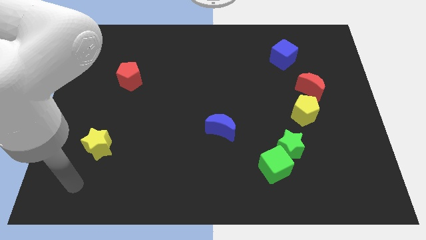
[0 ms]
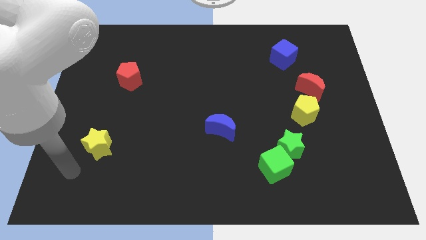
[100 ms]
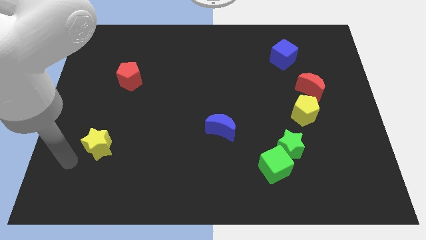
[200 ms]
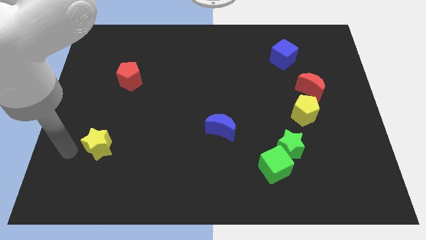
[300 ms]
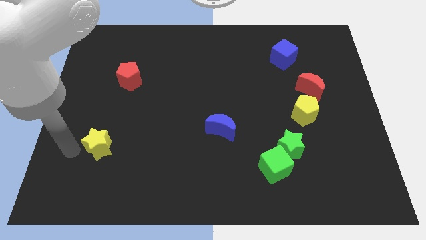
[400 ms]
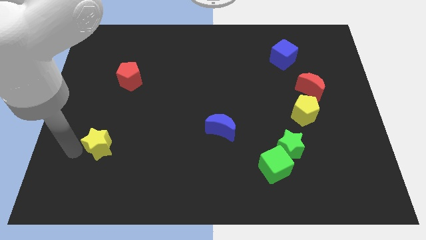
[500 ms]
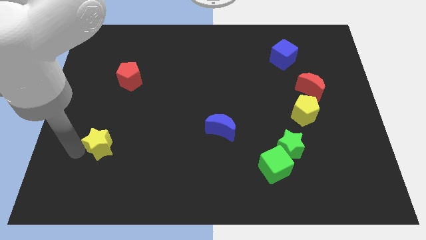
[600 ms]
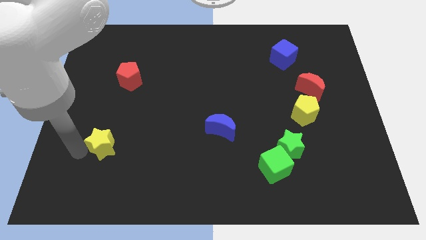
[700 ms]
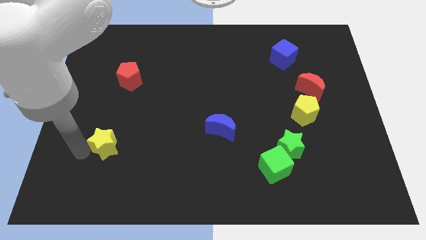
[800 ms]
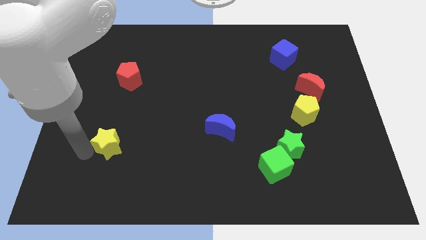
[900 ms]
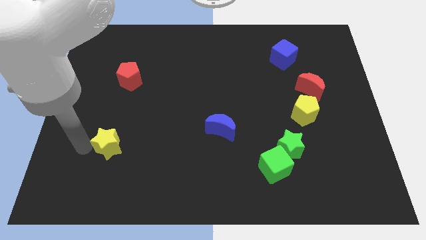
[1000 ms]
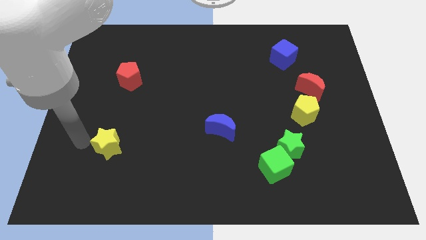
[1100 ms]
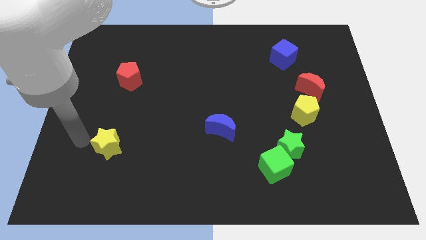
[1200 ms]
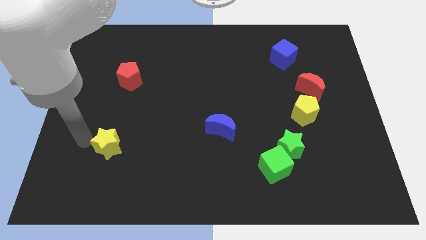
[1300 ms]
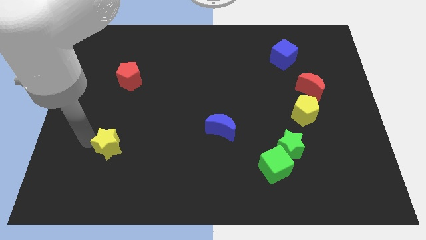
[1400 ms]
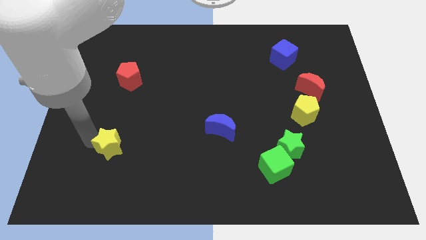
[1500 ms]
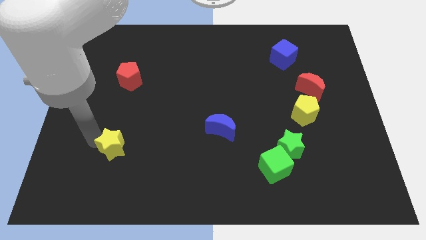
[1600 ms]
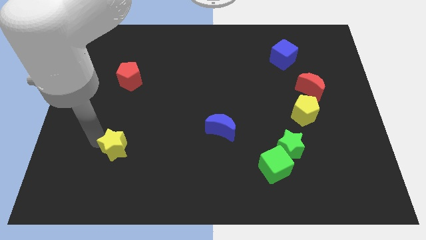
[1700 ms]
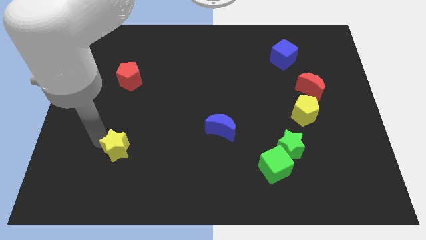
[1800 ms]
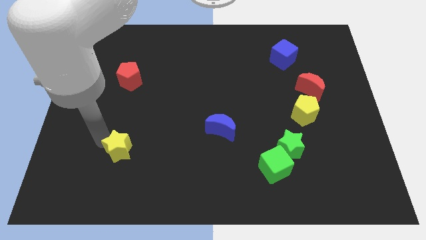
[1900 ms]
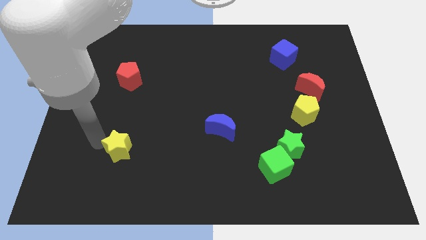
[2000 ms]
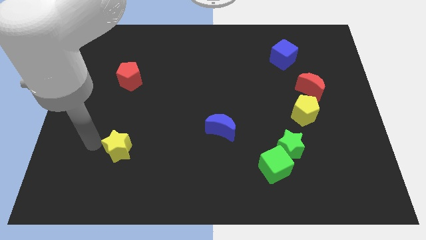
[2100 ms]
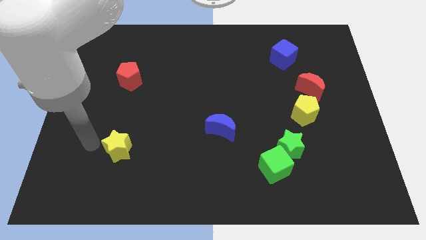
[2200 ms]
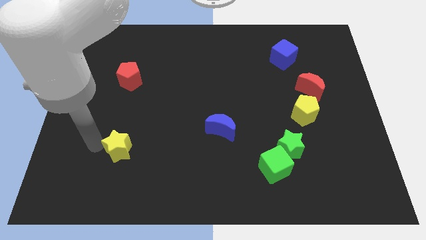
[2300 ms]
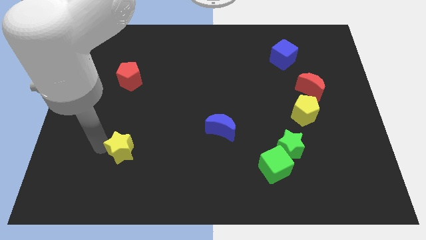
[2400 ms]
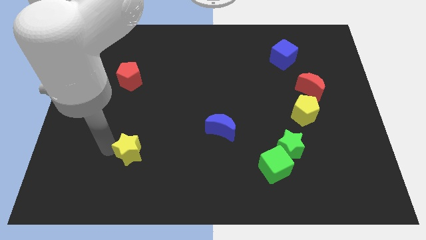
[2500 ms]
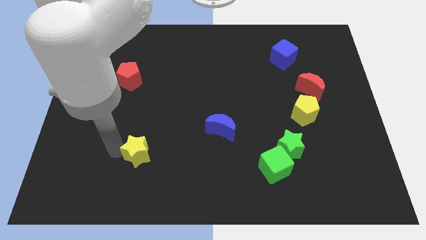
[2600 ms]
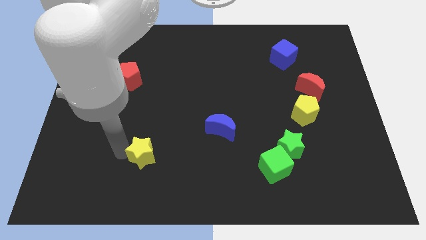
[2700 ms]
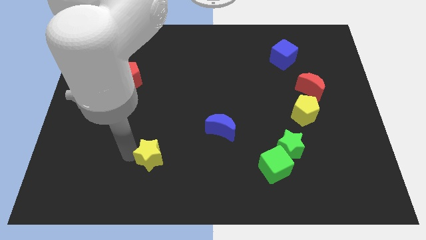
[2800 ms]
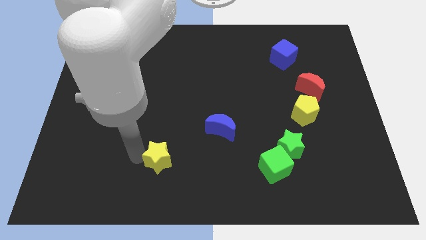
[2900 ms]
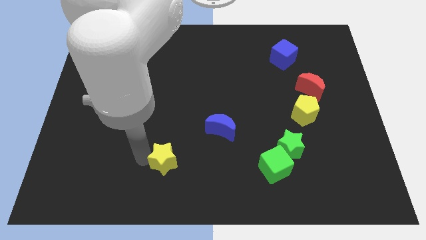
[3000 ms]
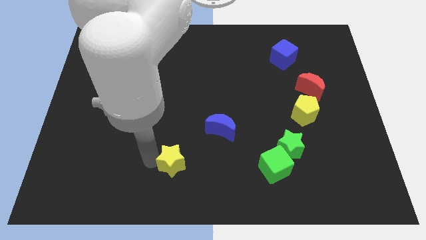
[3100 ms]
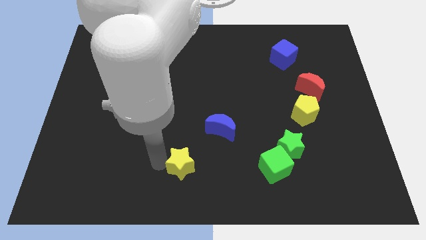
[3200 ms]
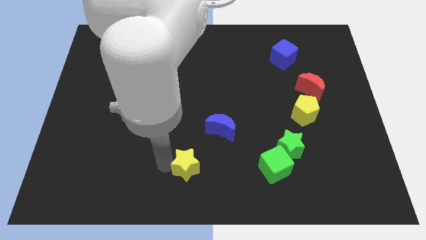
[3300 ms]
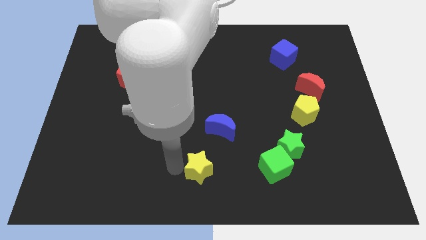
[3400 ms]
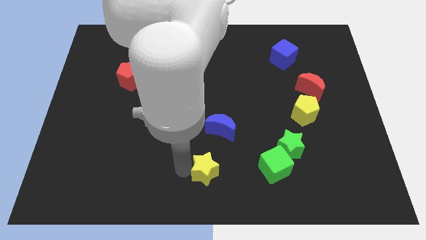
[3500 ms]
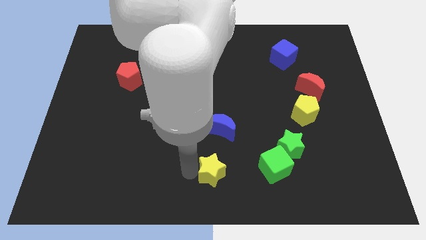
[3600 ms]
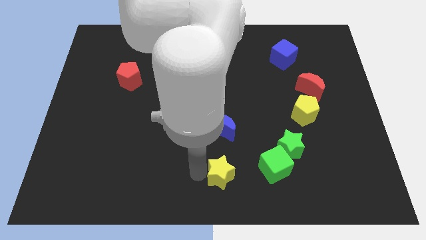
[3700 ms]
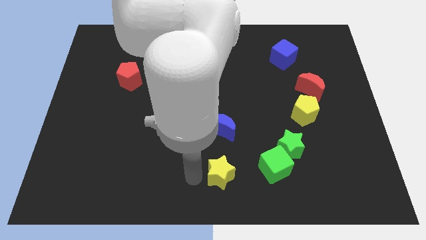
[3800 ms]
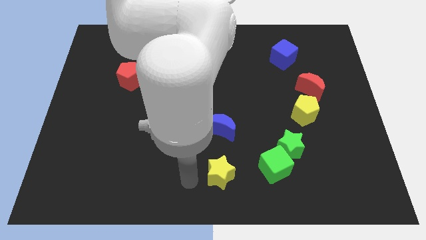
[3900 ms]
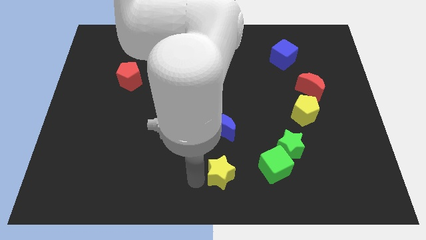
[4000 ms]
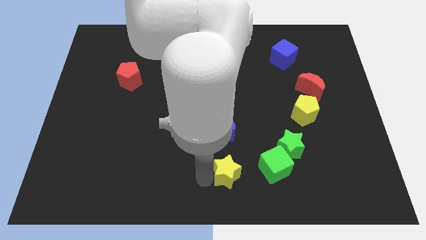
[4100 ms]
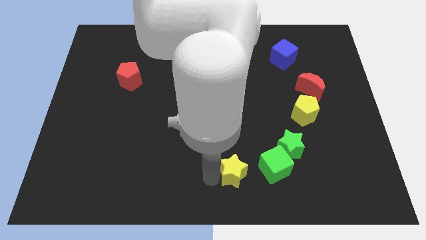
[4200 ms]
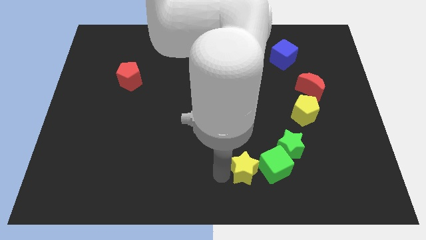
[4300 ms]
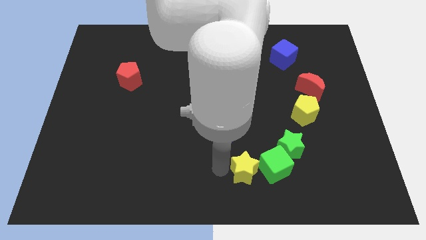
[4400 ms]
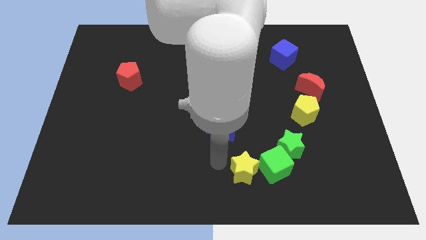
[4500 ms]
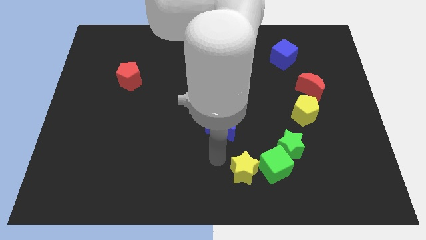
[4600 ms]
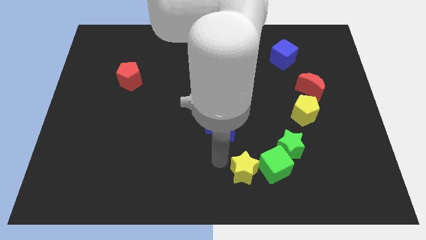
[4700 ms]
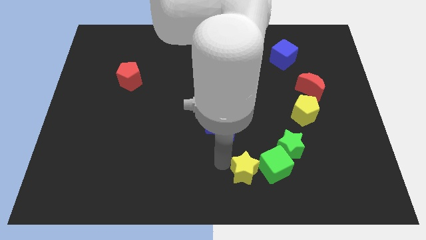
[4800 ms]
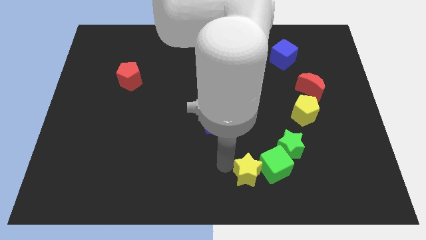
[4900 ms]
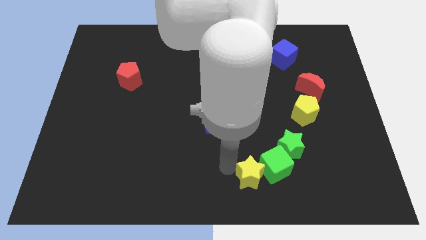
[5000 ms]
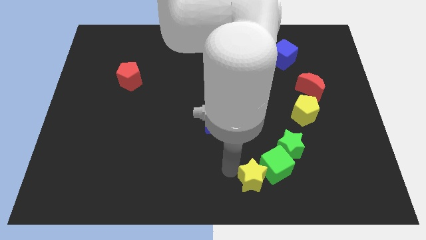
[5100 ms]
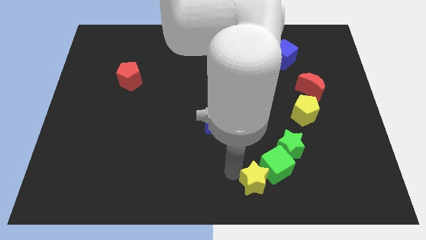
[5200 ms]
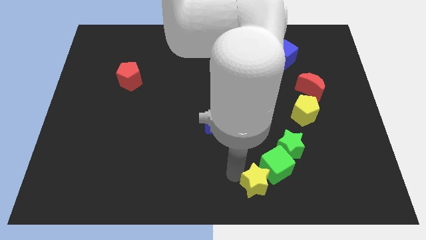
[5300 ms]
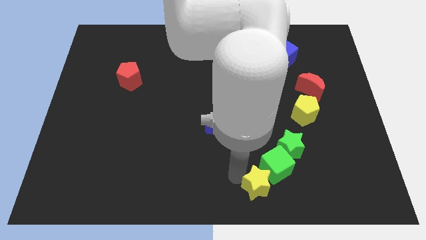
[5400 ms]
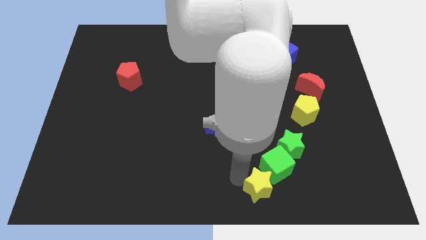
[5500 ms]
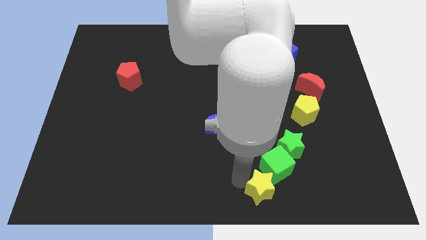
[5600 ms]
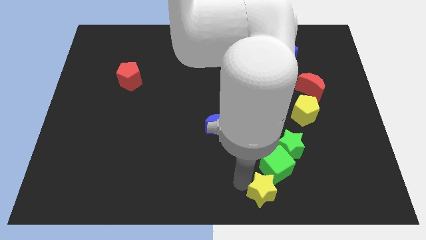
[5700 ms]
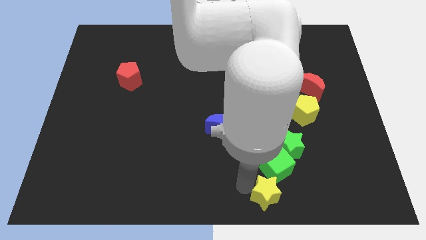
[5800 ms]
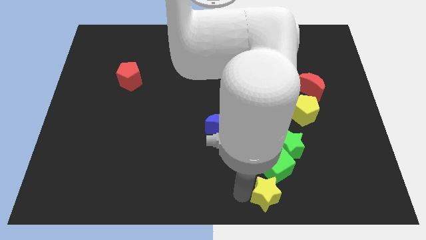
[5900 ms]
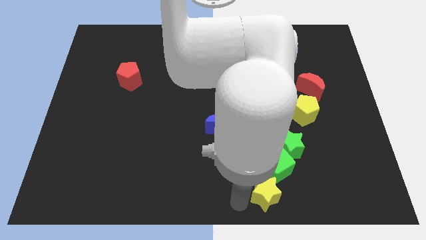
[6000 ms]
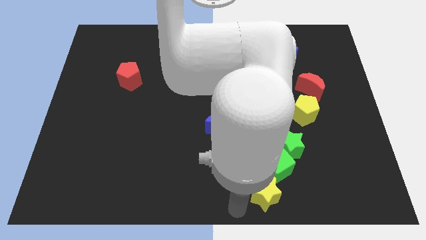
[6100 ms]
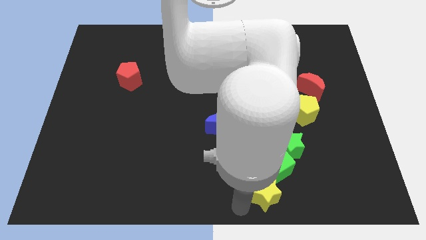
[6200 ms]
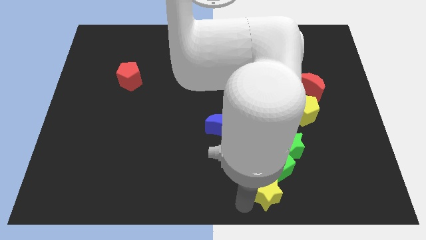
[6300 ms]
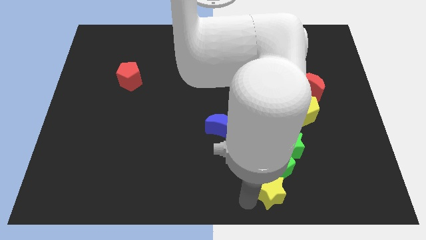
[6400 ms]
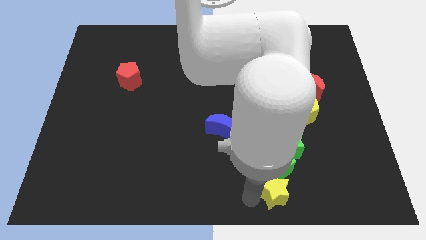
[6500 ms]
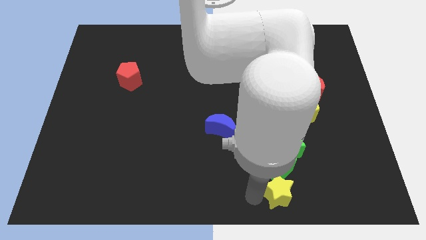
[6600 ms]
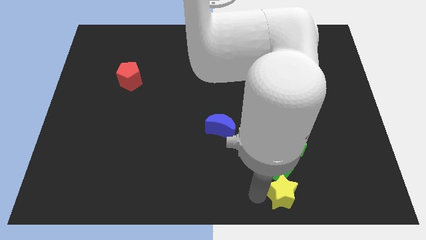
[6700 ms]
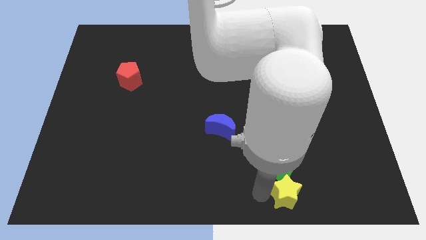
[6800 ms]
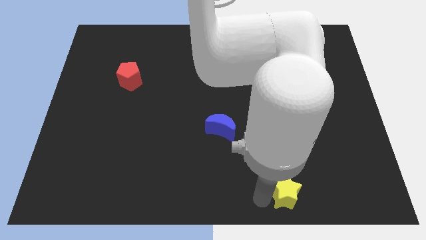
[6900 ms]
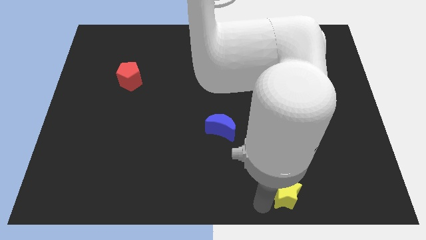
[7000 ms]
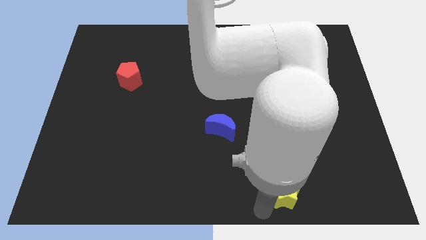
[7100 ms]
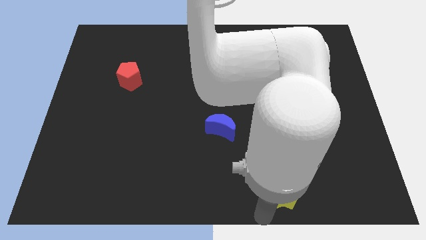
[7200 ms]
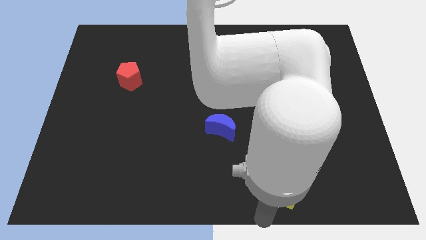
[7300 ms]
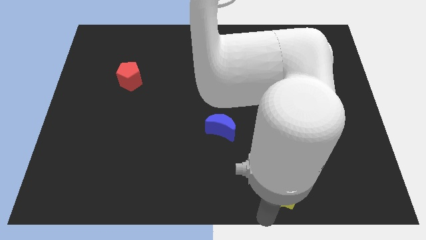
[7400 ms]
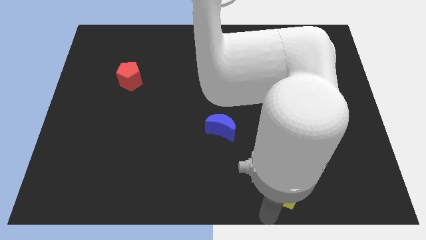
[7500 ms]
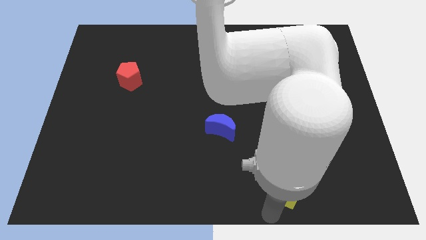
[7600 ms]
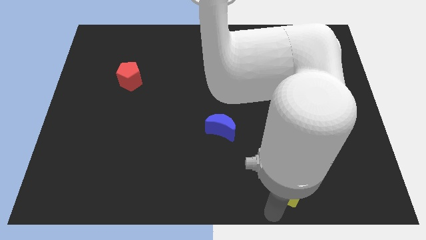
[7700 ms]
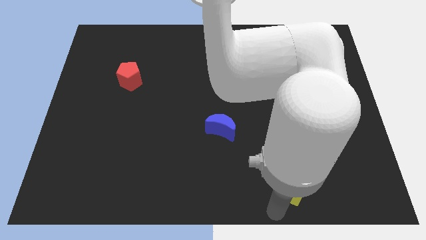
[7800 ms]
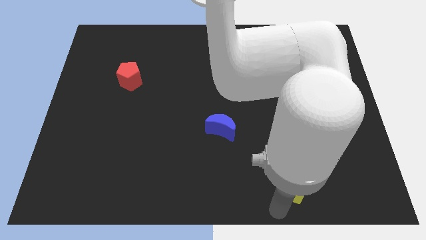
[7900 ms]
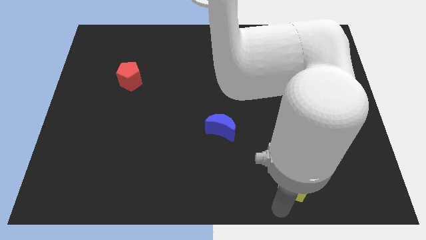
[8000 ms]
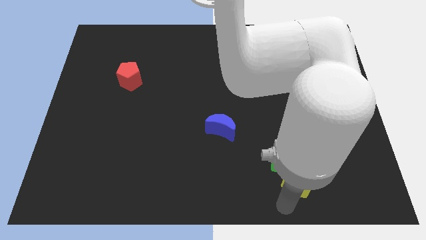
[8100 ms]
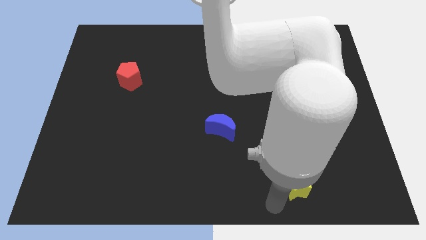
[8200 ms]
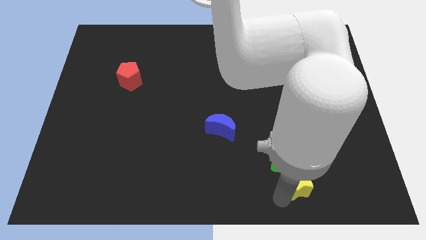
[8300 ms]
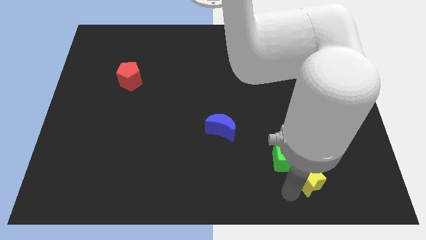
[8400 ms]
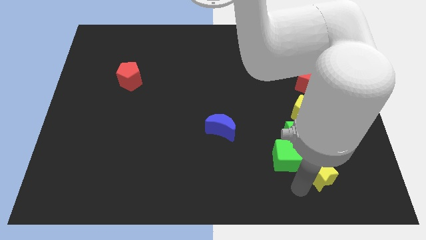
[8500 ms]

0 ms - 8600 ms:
move the yellow star right of the green cube
